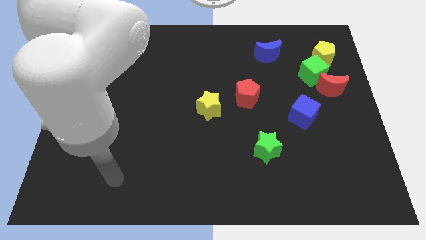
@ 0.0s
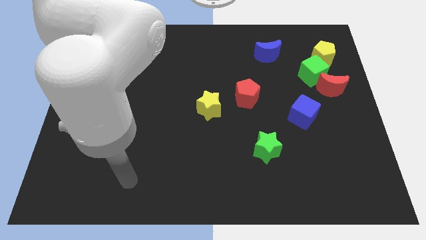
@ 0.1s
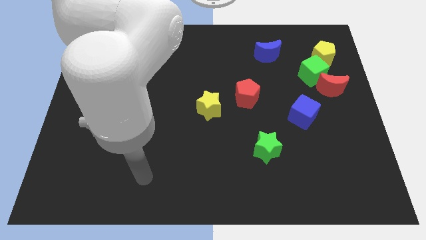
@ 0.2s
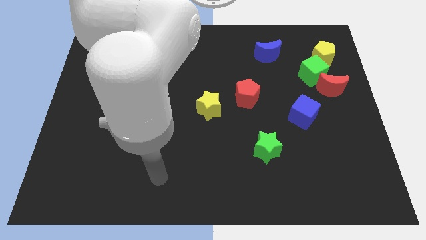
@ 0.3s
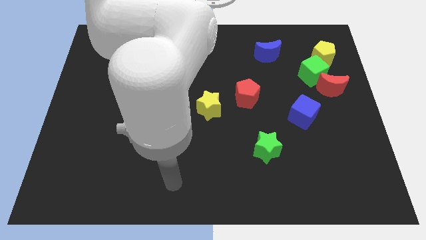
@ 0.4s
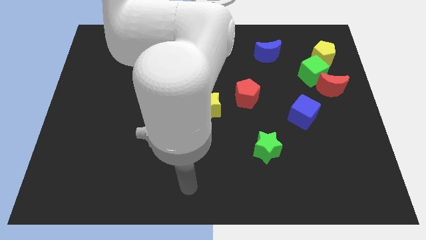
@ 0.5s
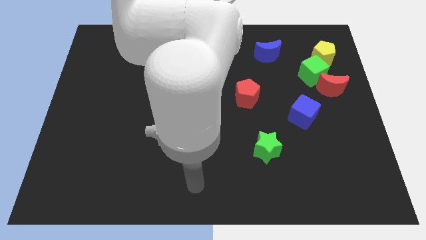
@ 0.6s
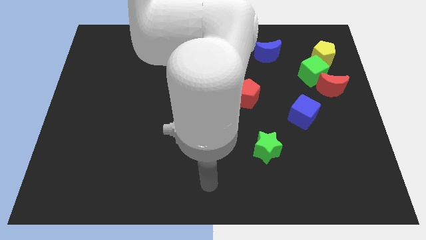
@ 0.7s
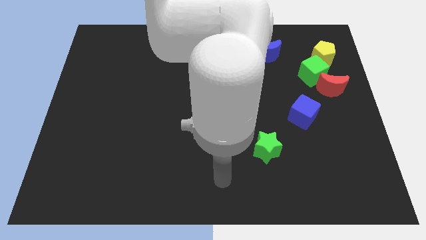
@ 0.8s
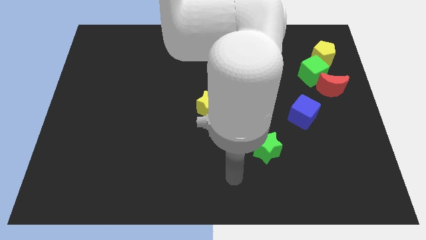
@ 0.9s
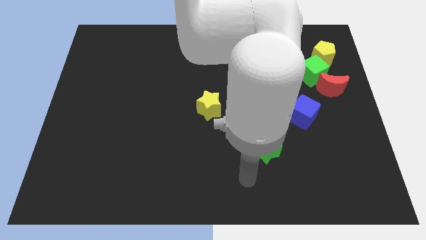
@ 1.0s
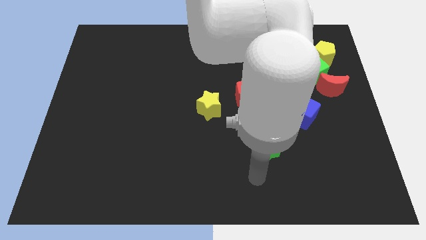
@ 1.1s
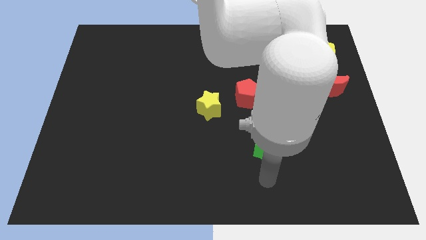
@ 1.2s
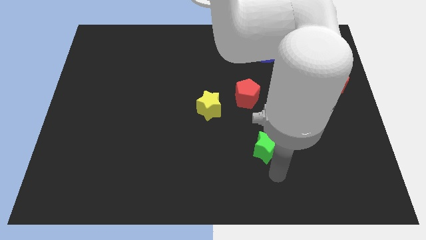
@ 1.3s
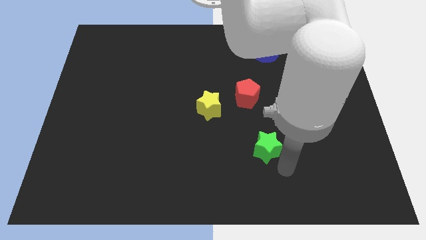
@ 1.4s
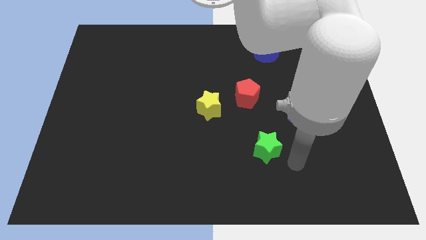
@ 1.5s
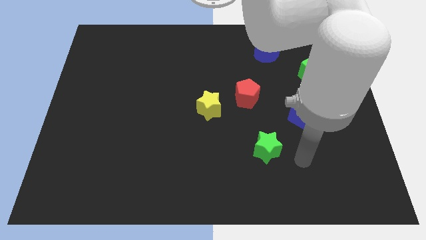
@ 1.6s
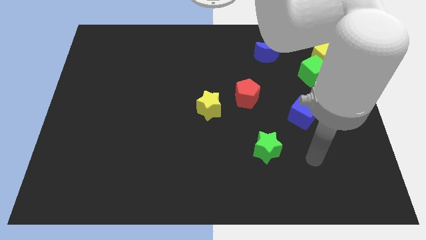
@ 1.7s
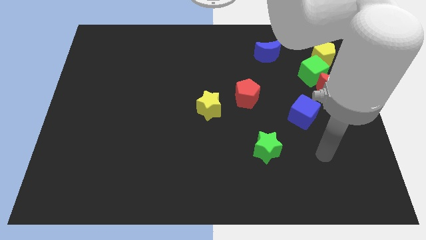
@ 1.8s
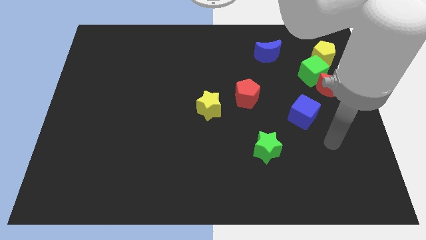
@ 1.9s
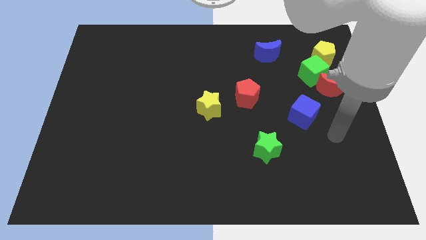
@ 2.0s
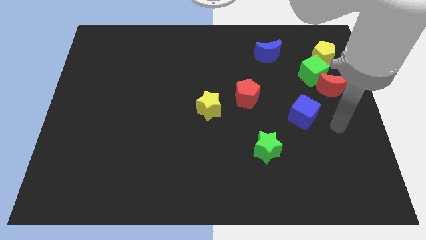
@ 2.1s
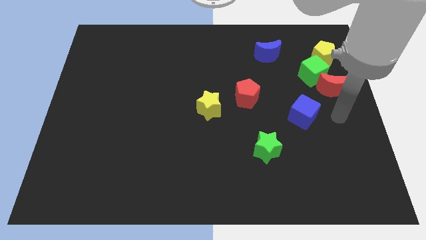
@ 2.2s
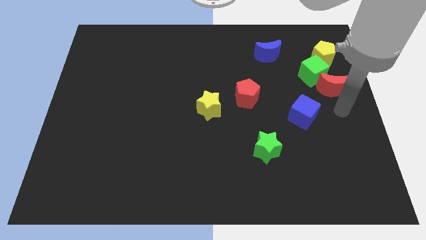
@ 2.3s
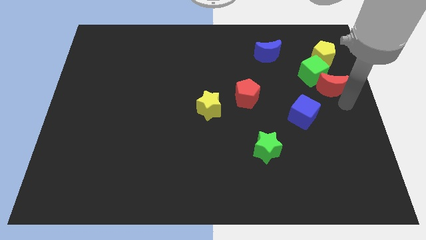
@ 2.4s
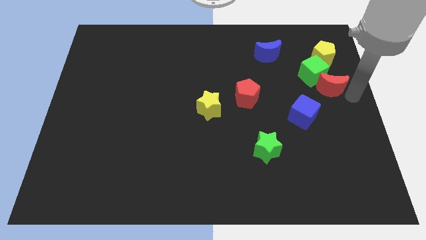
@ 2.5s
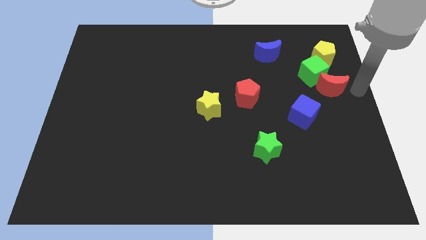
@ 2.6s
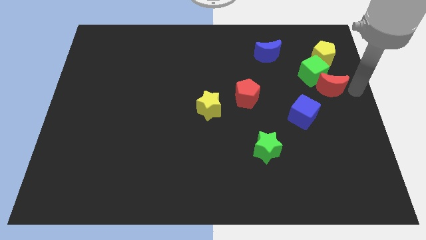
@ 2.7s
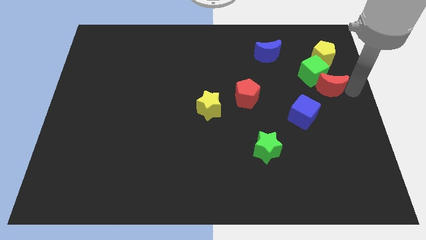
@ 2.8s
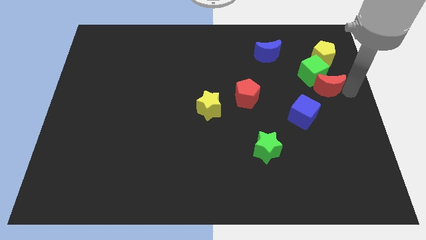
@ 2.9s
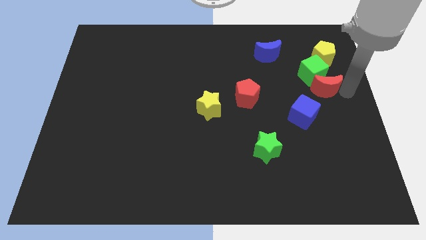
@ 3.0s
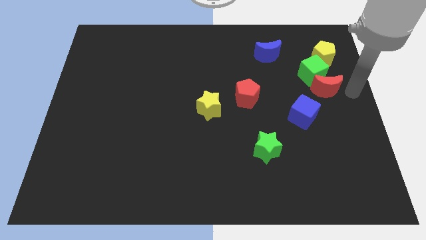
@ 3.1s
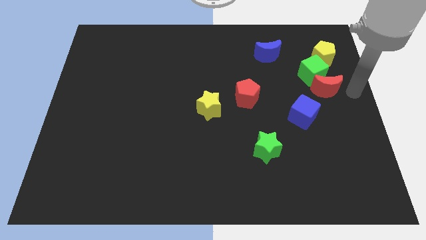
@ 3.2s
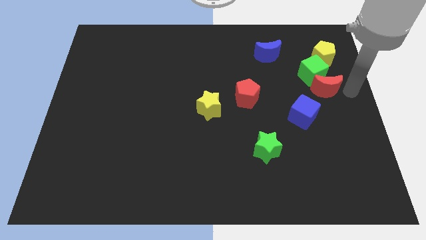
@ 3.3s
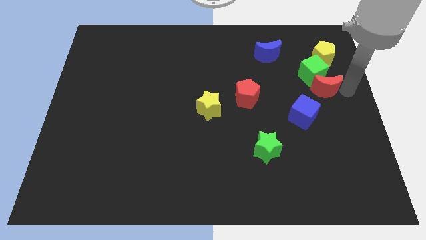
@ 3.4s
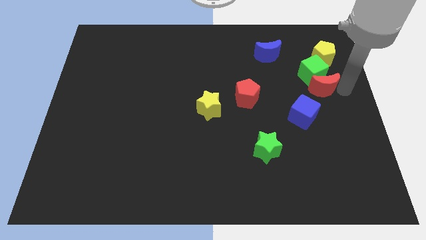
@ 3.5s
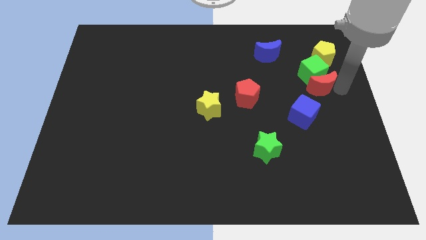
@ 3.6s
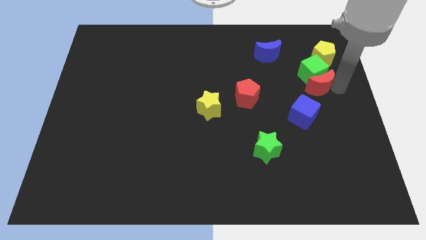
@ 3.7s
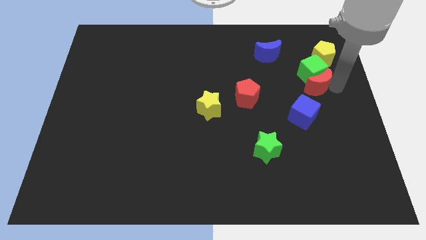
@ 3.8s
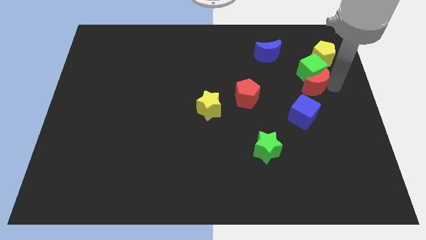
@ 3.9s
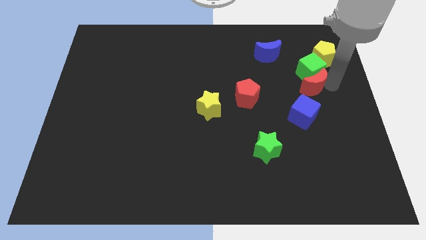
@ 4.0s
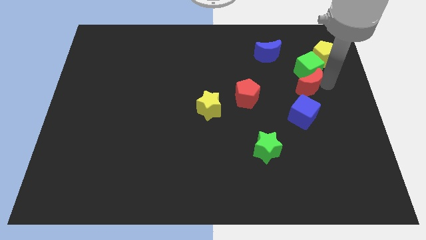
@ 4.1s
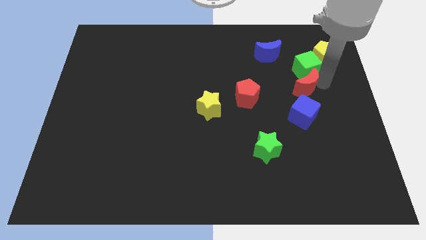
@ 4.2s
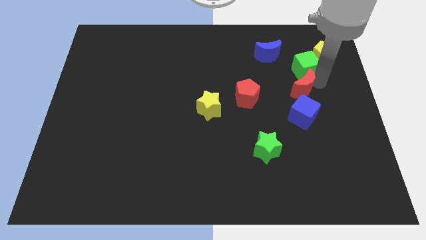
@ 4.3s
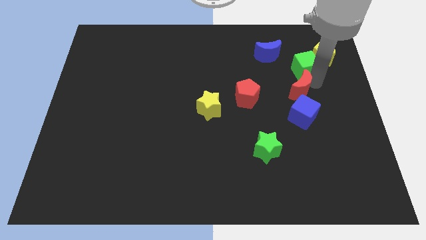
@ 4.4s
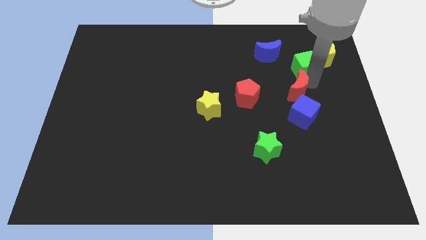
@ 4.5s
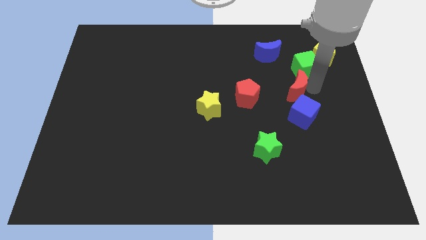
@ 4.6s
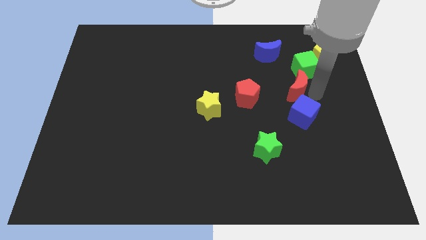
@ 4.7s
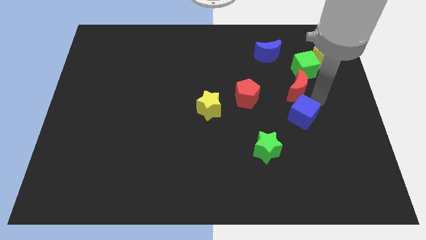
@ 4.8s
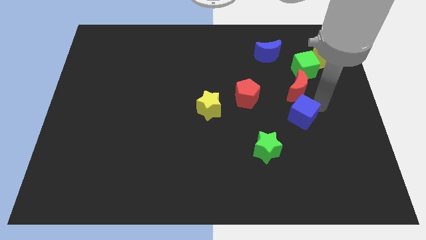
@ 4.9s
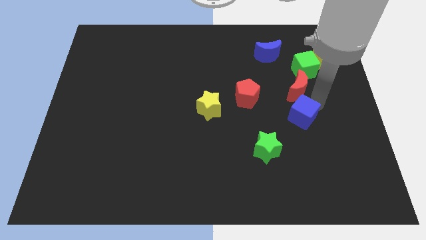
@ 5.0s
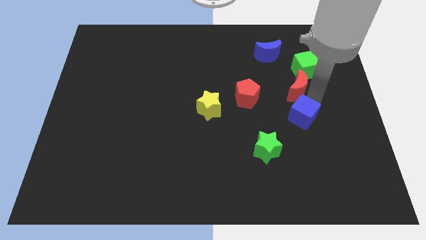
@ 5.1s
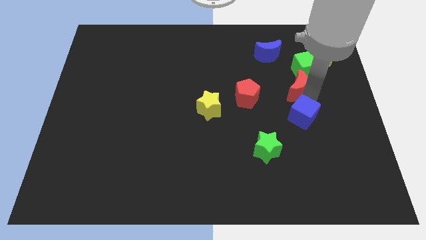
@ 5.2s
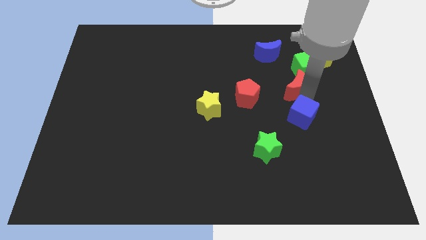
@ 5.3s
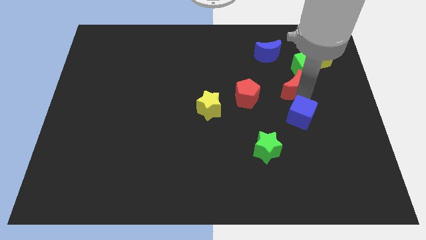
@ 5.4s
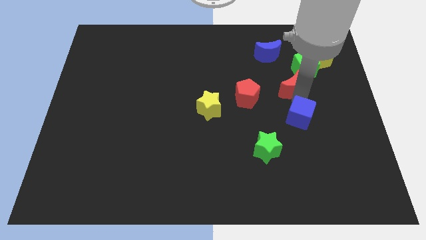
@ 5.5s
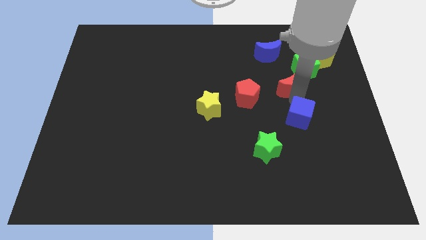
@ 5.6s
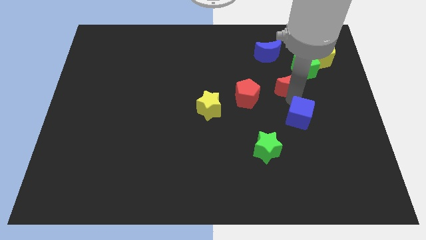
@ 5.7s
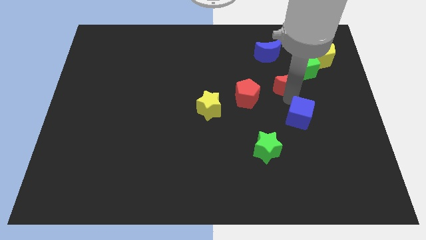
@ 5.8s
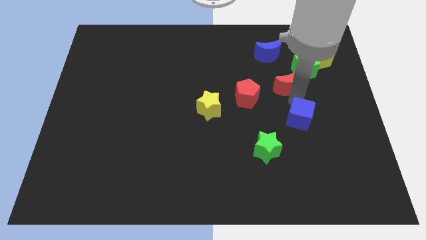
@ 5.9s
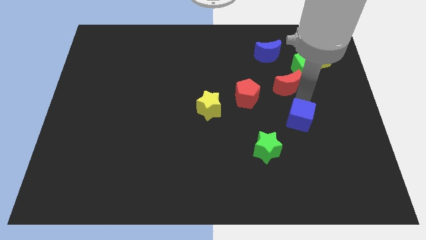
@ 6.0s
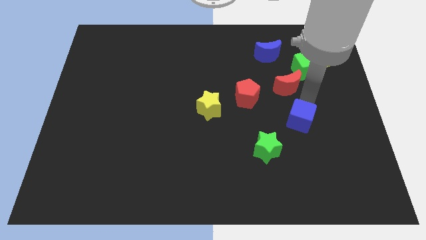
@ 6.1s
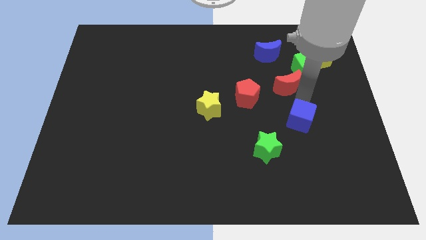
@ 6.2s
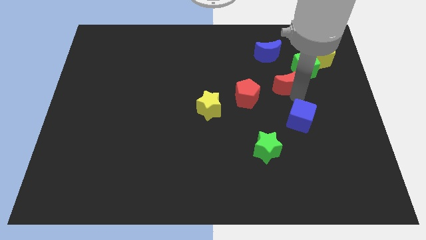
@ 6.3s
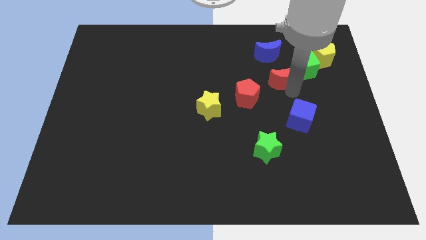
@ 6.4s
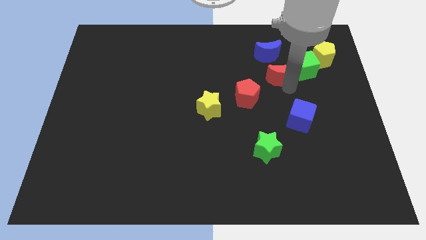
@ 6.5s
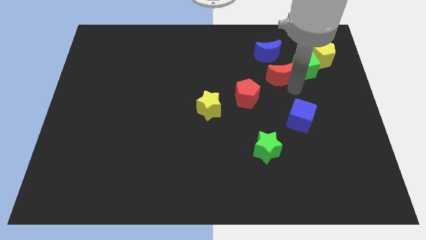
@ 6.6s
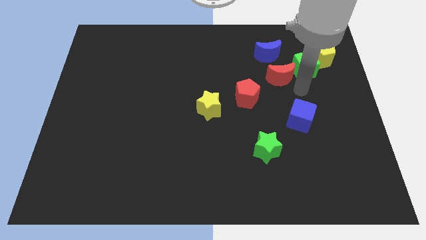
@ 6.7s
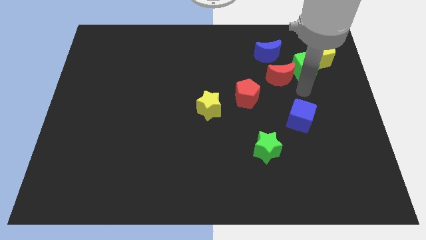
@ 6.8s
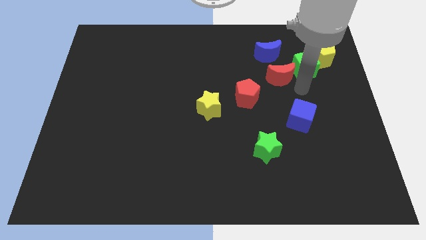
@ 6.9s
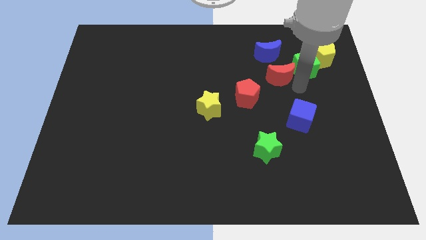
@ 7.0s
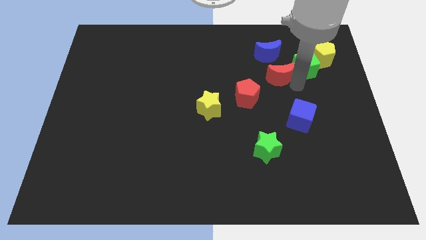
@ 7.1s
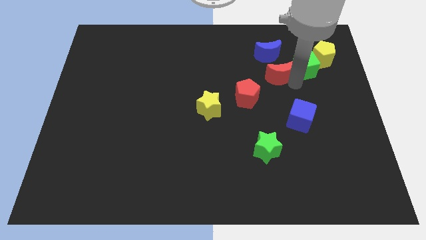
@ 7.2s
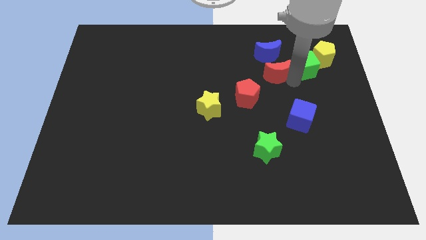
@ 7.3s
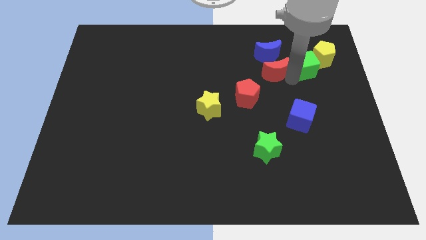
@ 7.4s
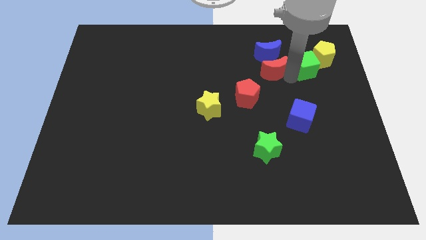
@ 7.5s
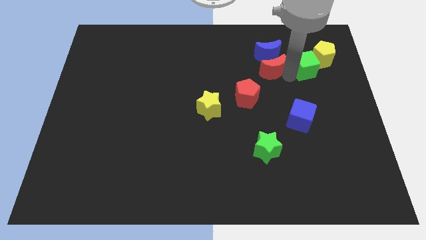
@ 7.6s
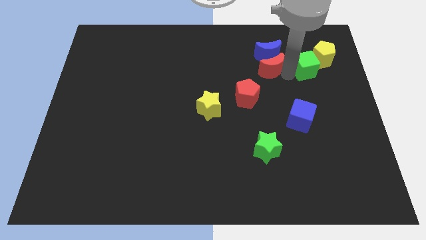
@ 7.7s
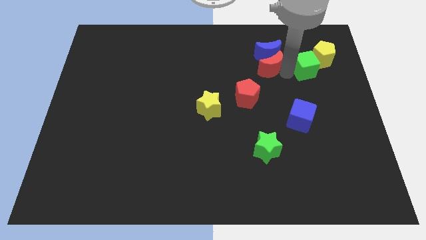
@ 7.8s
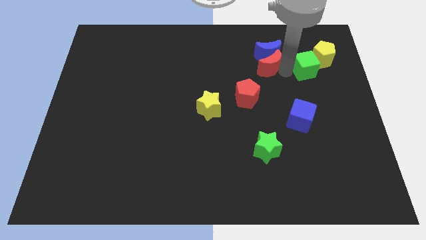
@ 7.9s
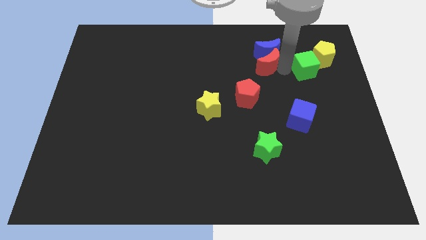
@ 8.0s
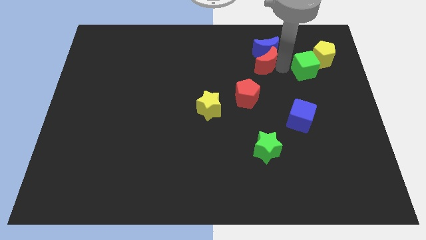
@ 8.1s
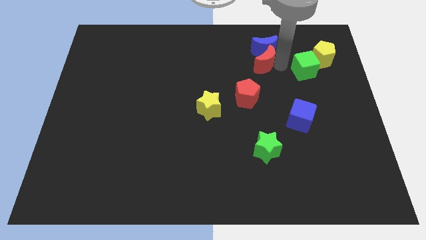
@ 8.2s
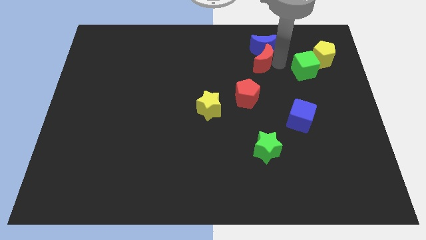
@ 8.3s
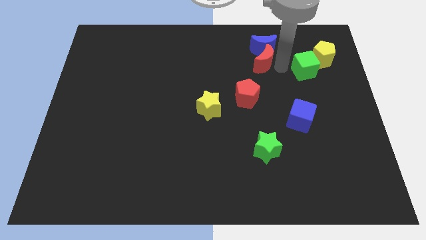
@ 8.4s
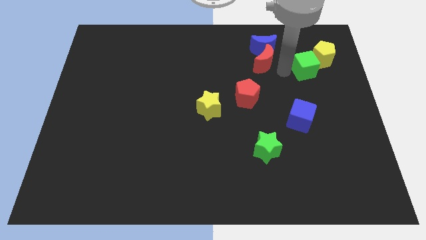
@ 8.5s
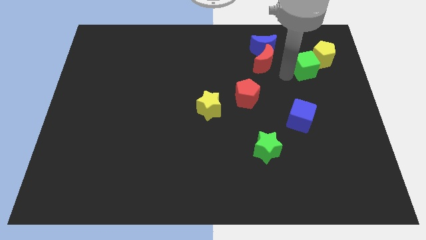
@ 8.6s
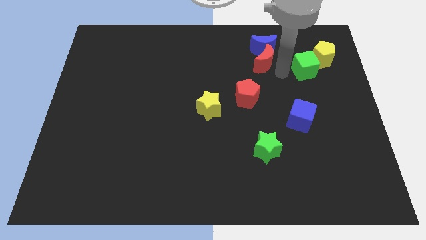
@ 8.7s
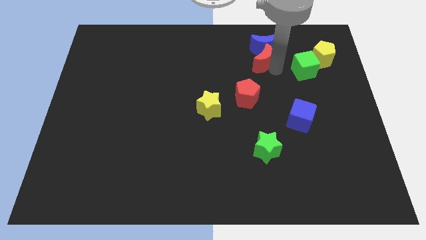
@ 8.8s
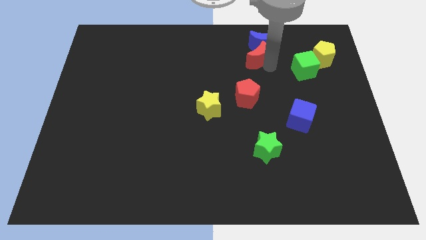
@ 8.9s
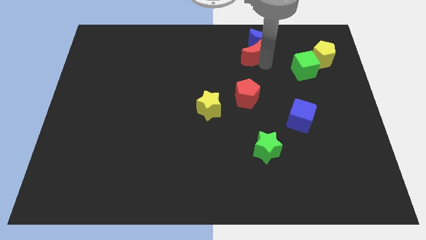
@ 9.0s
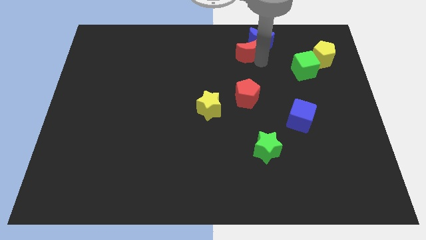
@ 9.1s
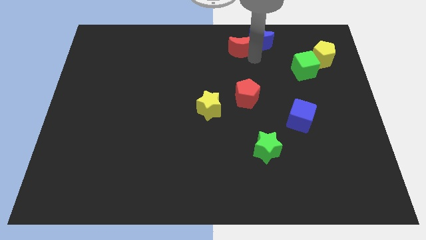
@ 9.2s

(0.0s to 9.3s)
move the red moon to the towards your base
